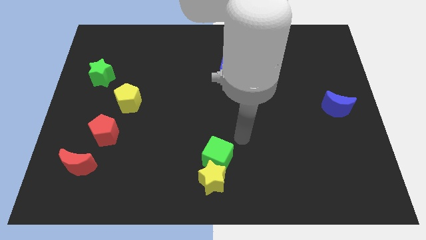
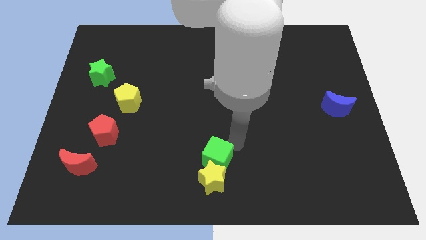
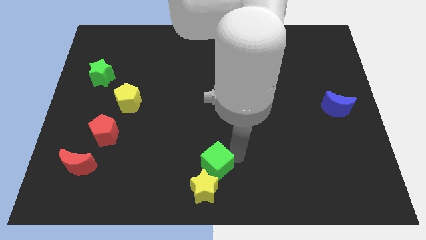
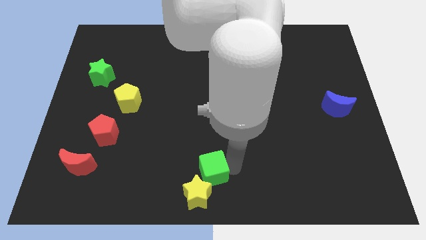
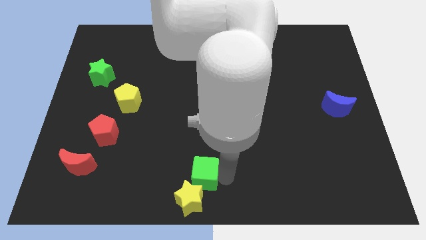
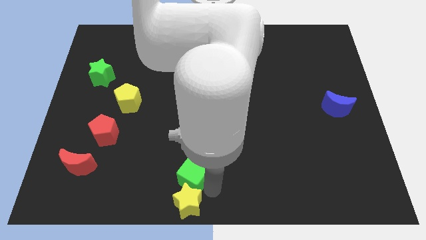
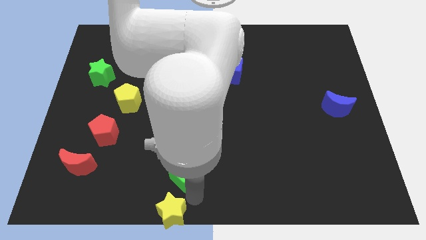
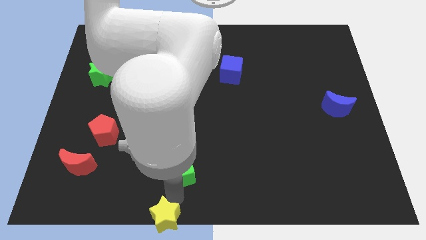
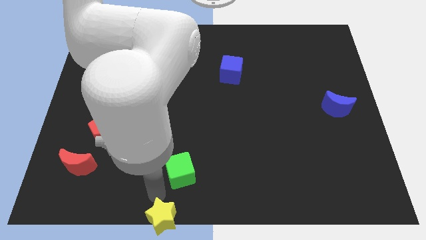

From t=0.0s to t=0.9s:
move the green cube away from the yellow star

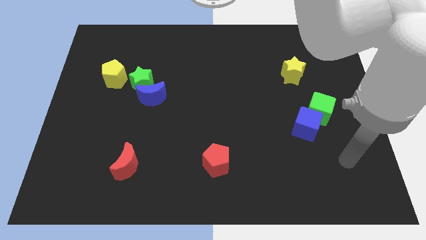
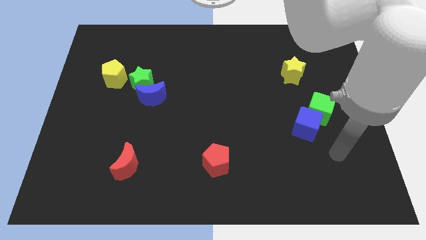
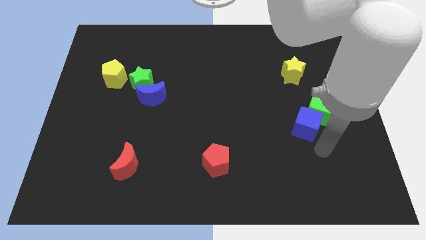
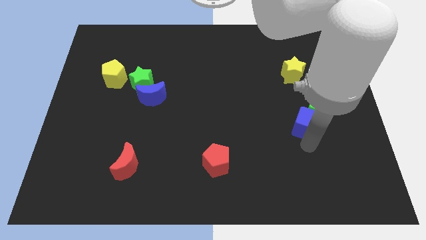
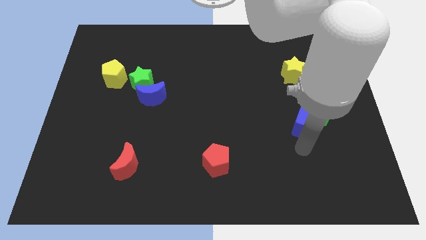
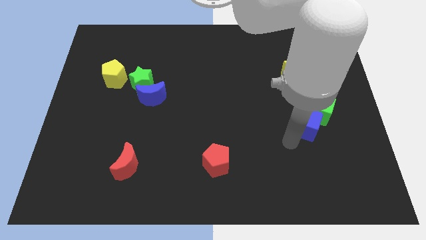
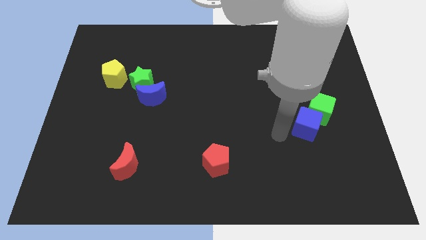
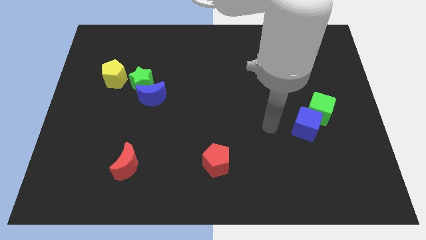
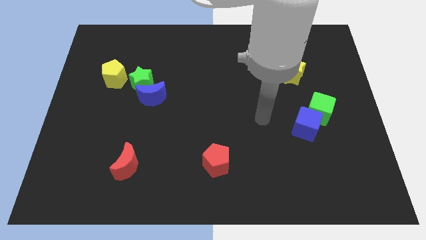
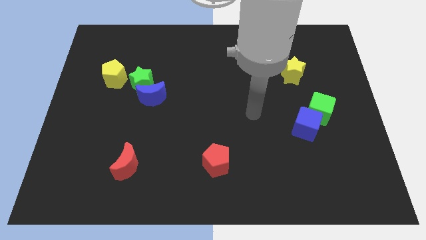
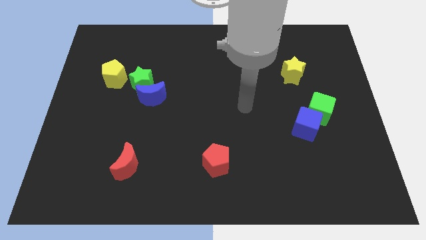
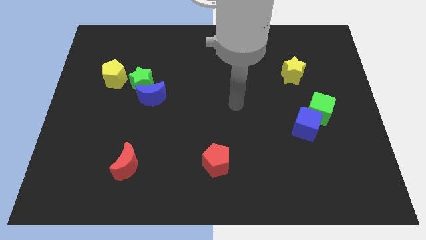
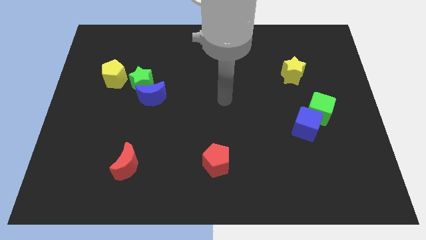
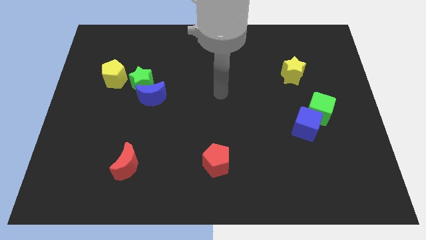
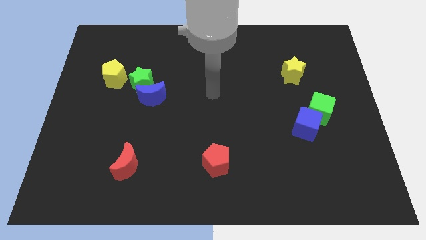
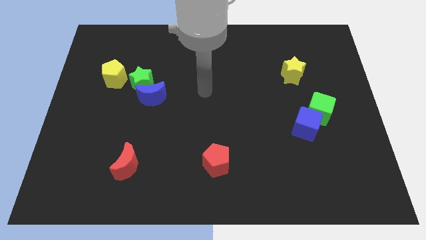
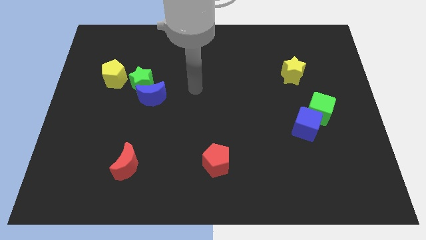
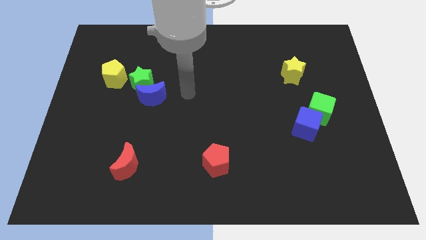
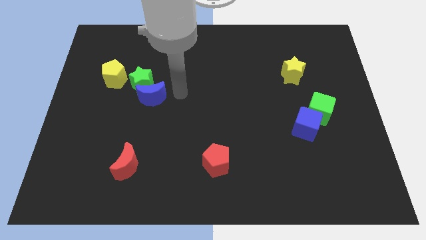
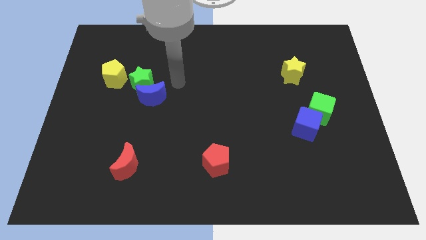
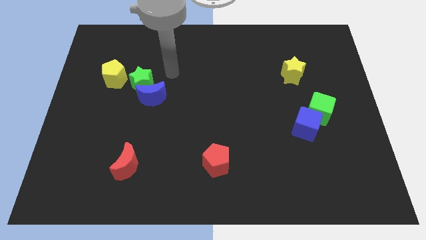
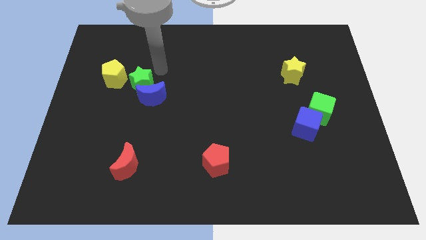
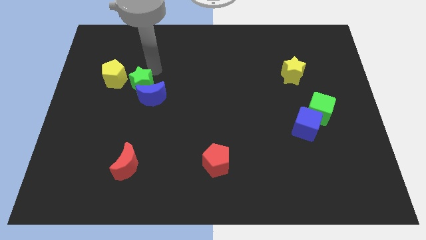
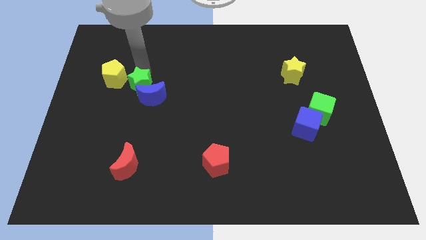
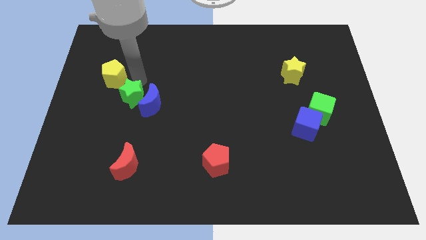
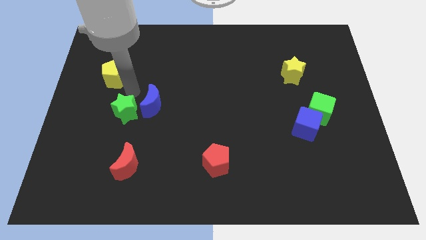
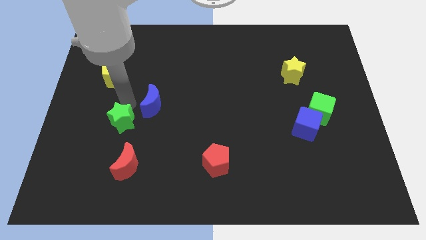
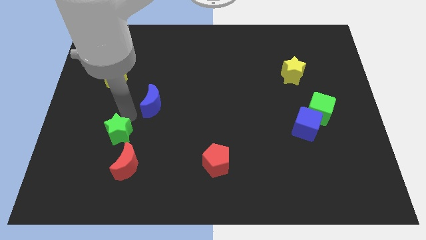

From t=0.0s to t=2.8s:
pull the blue moon apart from the green star

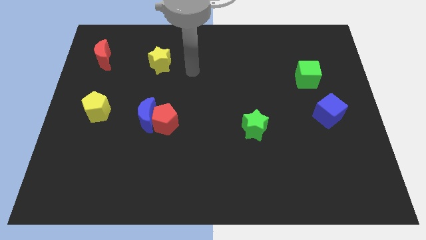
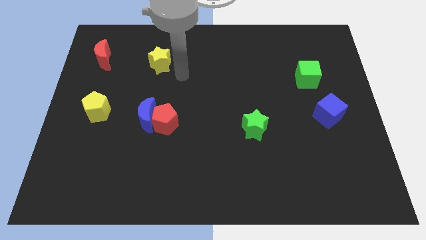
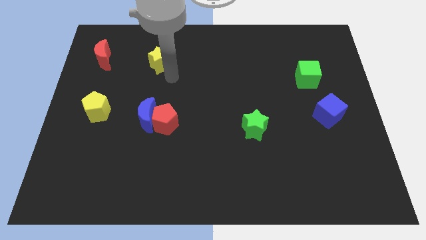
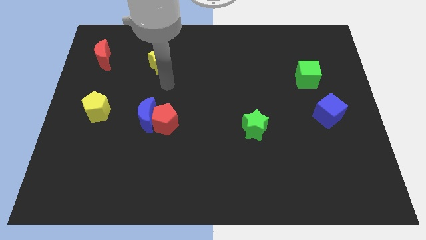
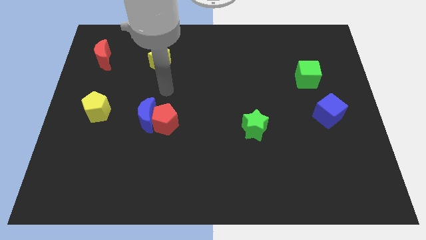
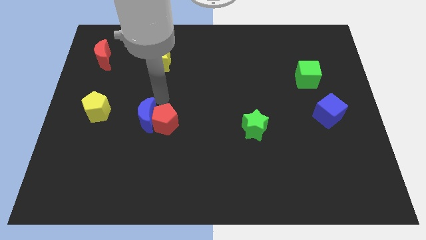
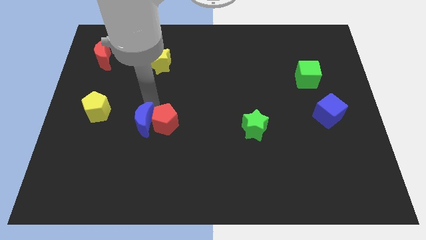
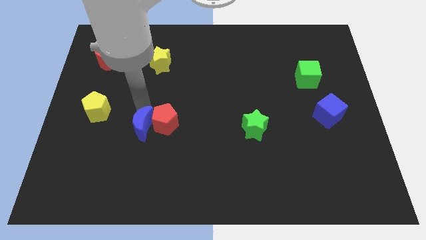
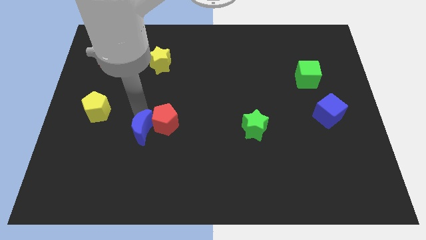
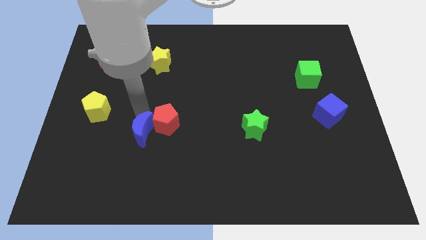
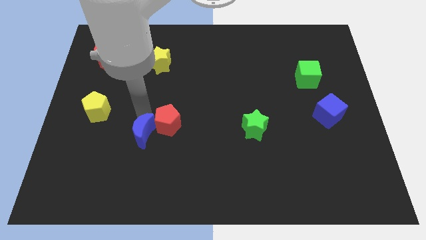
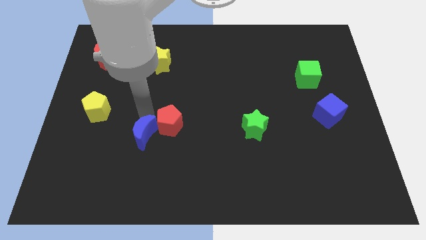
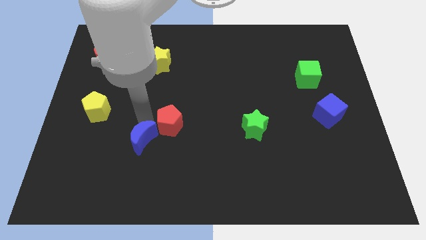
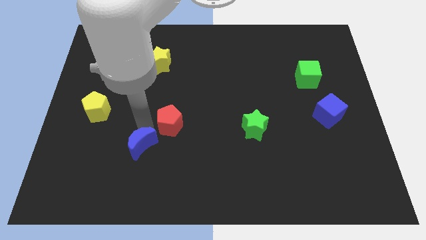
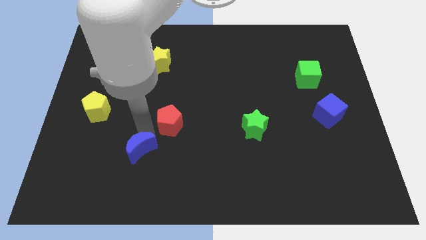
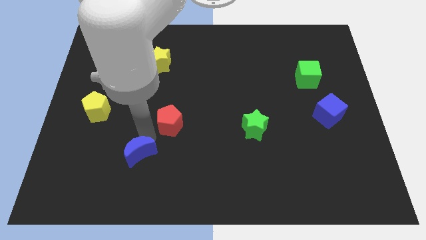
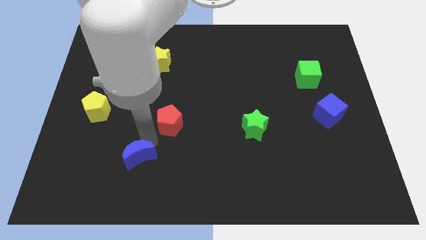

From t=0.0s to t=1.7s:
pull the red pentagon apart from the blue moon

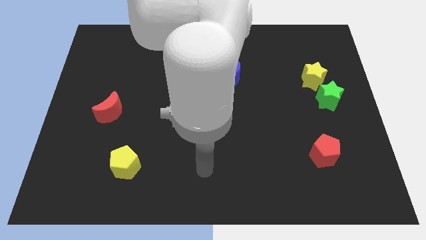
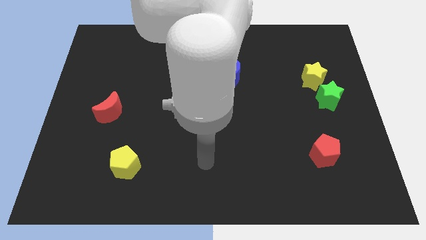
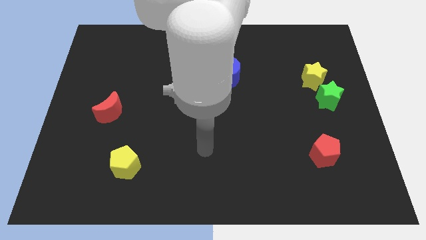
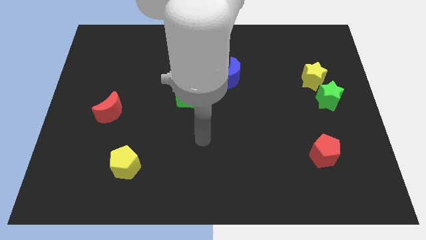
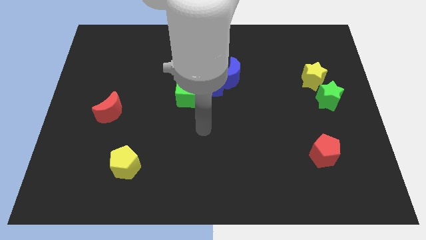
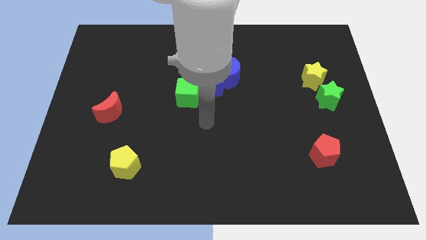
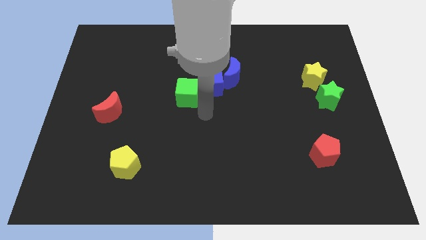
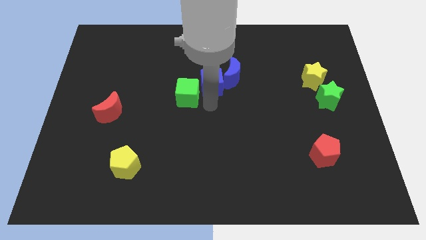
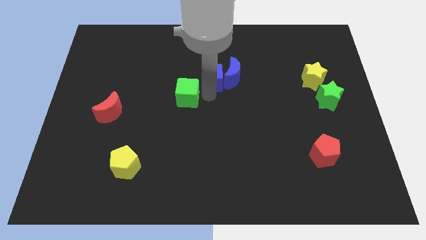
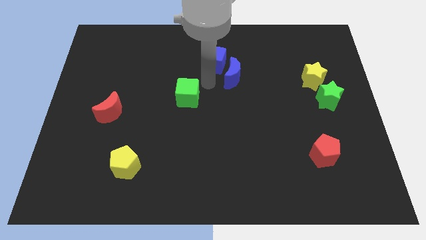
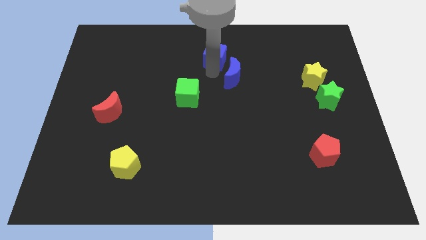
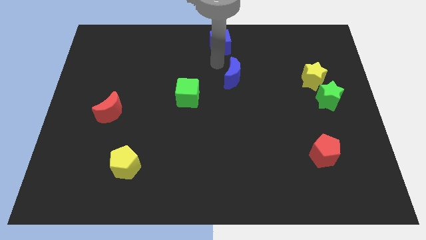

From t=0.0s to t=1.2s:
pull the blue moon apart from the blue cube

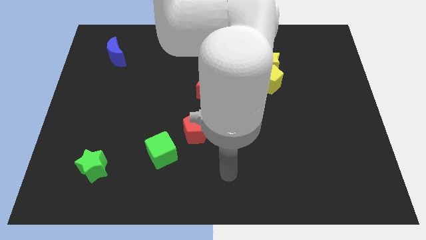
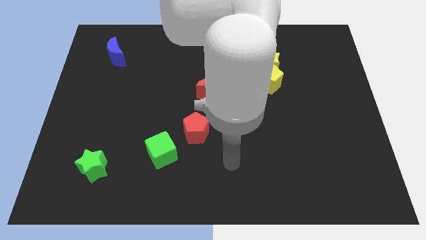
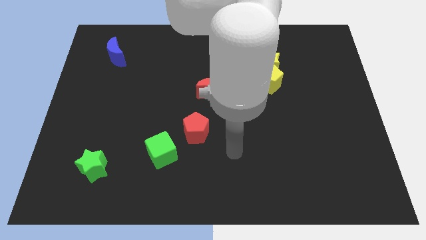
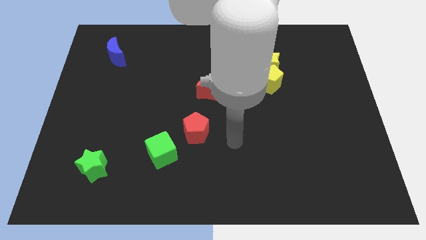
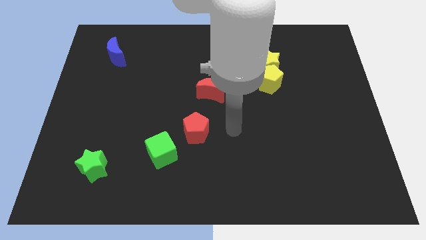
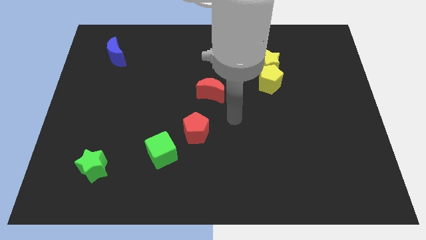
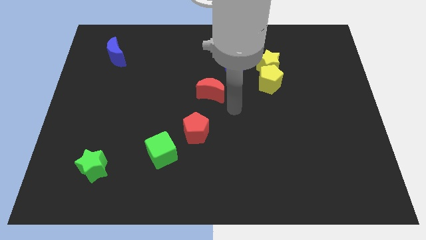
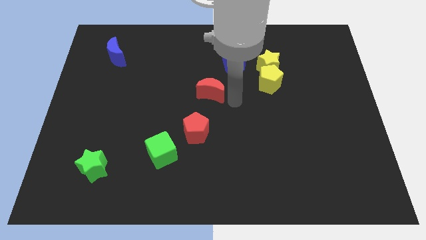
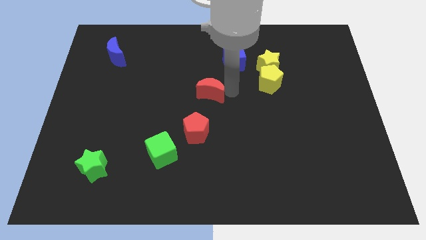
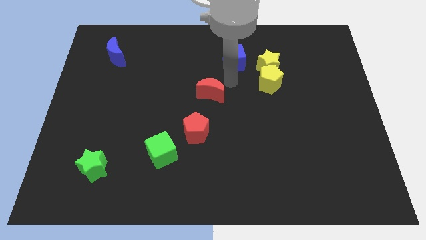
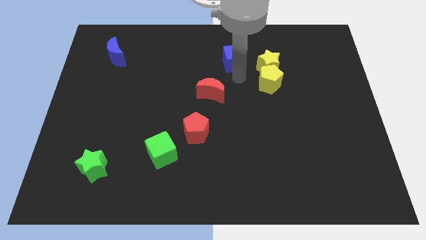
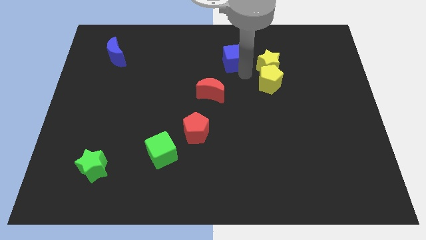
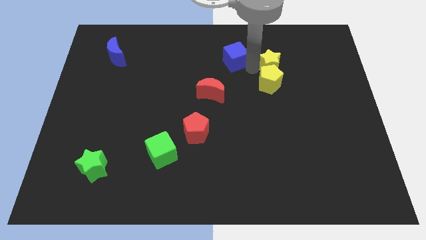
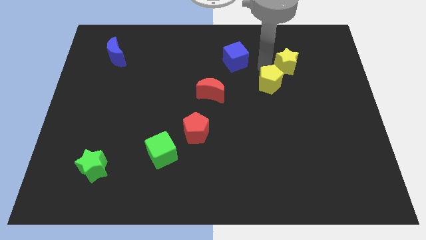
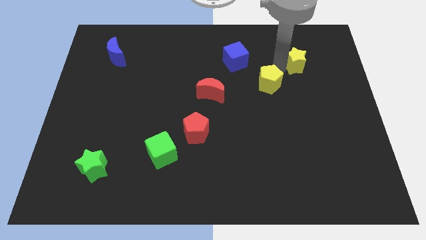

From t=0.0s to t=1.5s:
separate the yellow pentagon from the yellow star

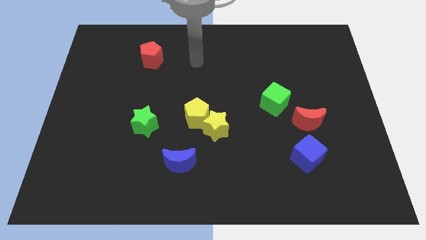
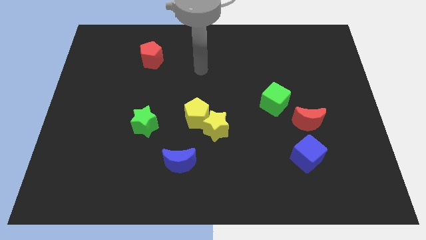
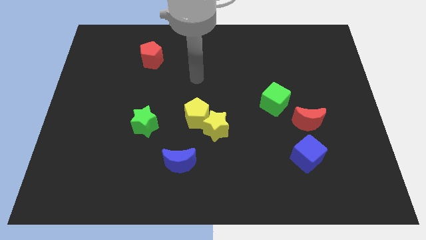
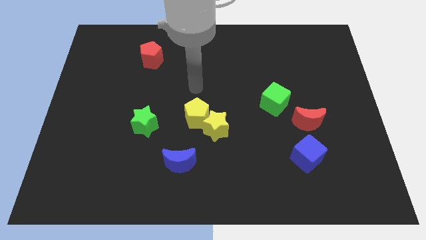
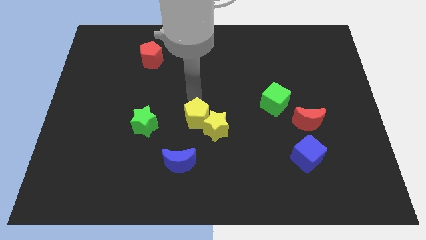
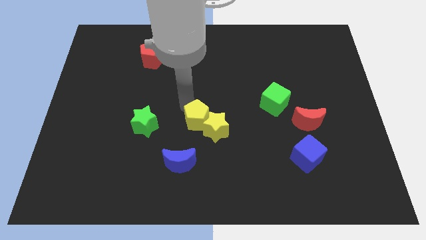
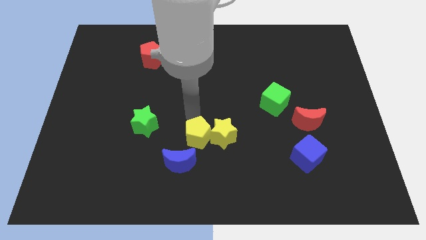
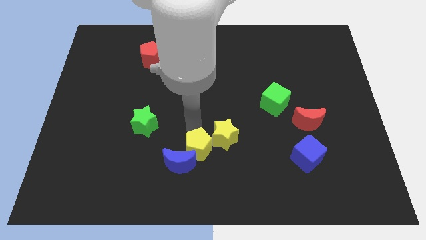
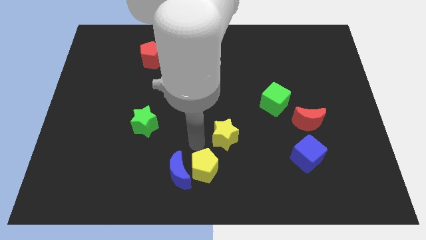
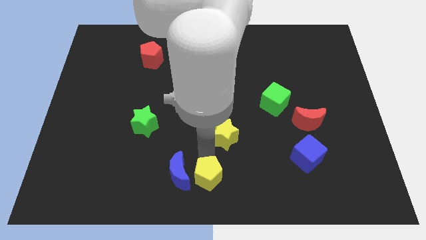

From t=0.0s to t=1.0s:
separate the yellow star from the yellow pentagon
